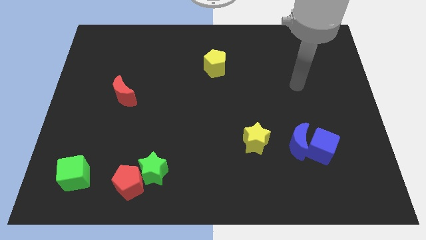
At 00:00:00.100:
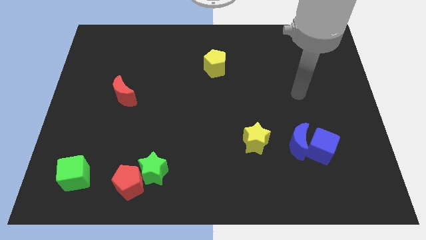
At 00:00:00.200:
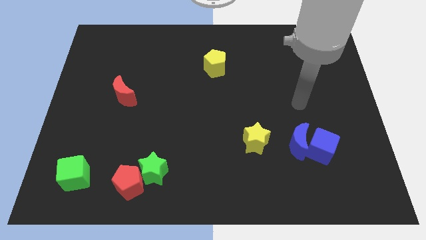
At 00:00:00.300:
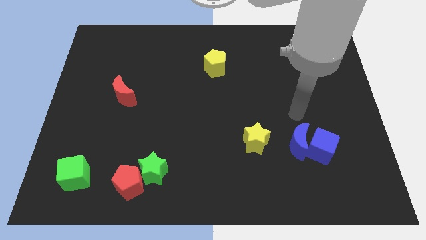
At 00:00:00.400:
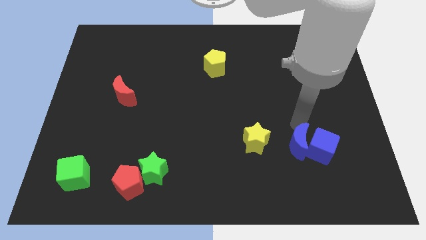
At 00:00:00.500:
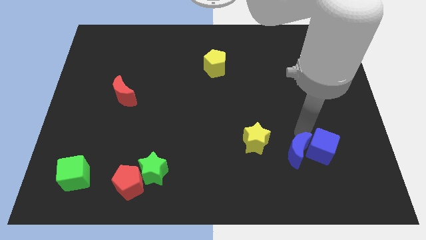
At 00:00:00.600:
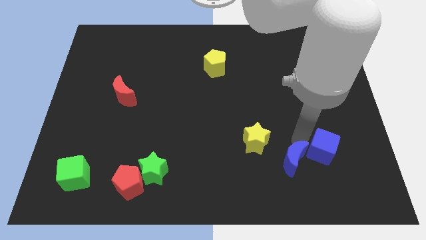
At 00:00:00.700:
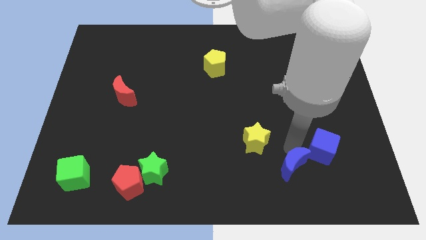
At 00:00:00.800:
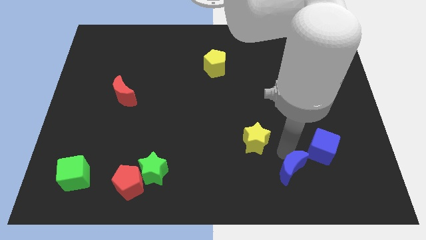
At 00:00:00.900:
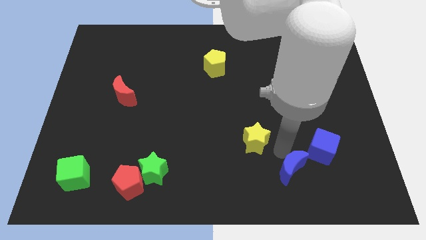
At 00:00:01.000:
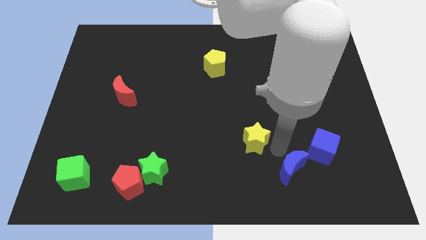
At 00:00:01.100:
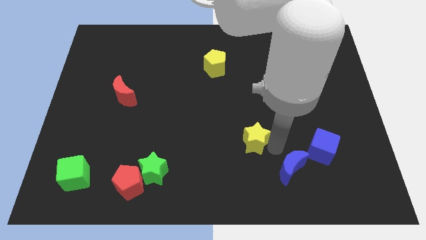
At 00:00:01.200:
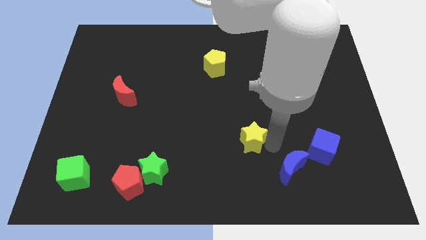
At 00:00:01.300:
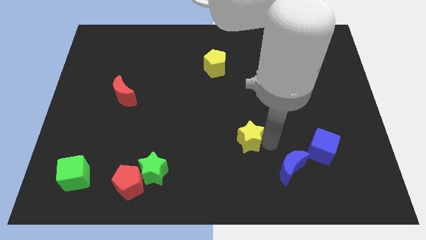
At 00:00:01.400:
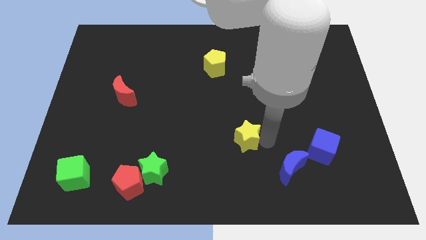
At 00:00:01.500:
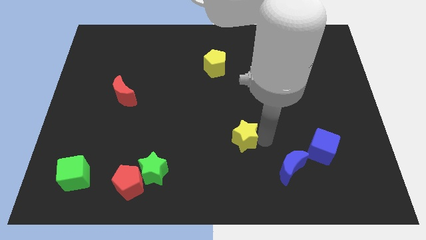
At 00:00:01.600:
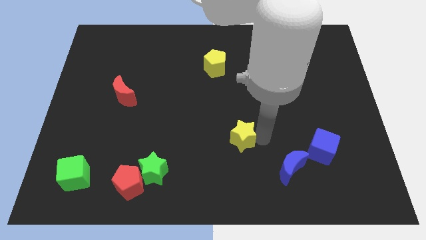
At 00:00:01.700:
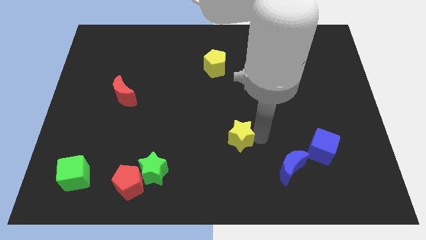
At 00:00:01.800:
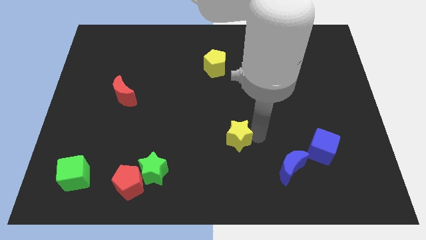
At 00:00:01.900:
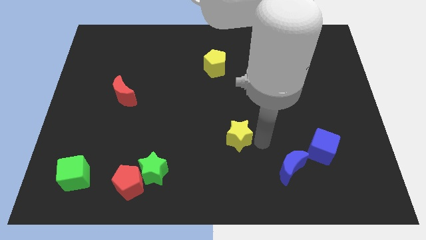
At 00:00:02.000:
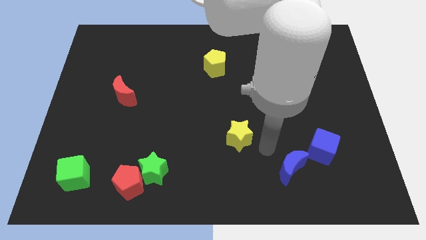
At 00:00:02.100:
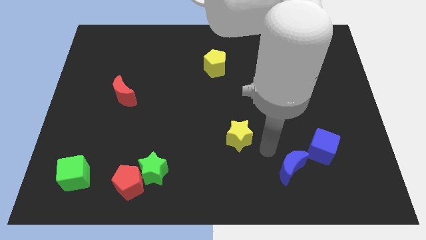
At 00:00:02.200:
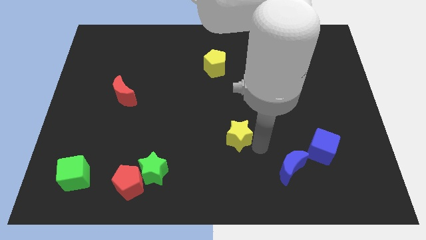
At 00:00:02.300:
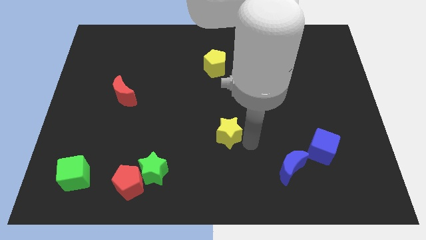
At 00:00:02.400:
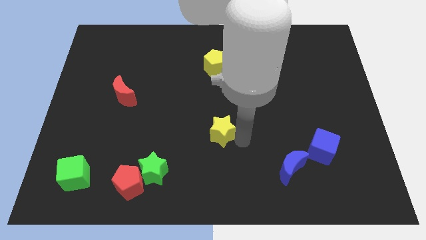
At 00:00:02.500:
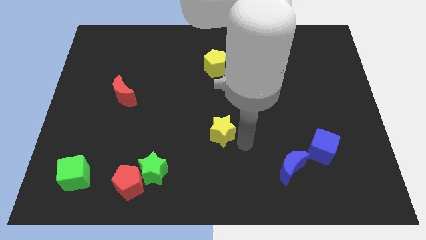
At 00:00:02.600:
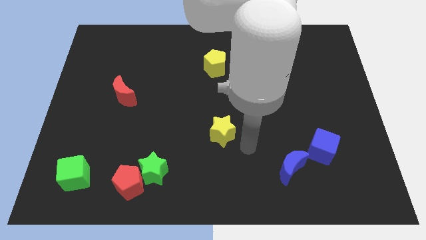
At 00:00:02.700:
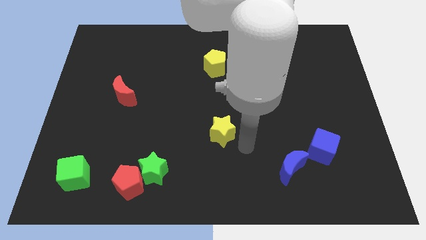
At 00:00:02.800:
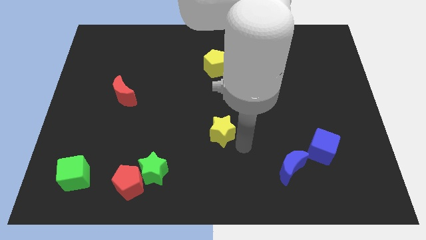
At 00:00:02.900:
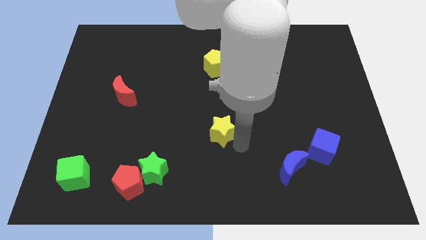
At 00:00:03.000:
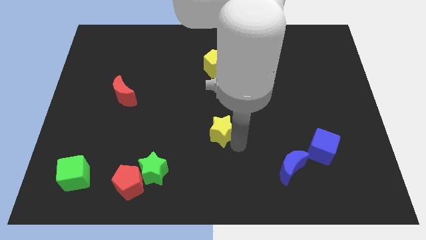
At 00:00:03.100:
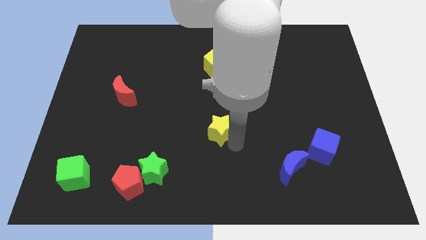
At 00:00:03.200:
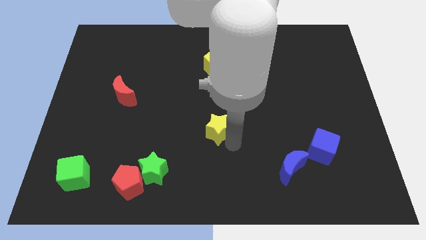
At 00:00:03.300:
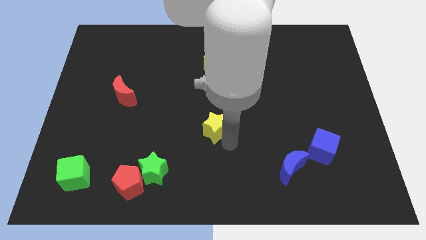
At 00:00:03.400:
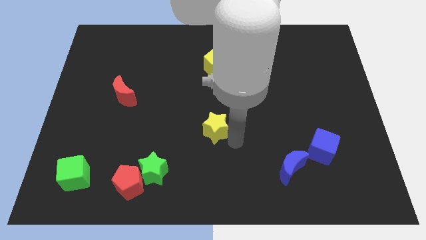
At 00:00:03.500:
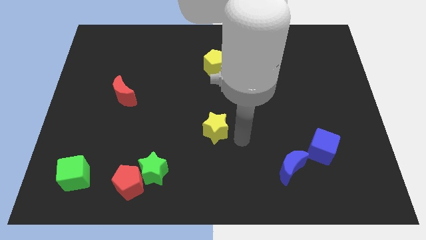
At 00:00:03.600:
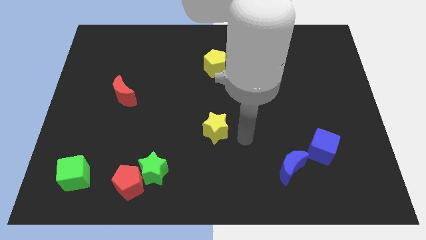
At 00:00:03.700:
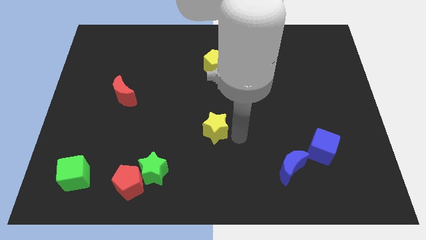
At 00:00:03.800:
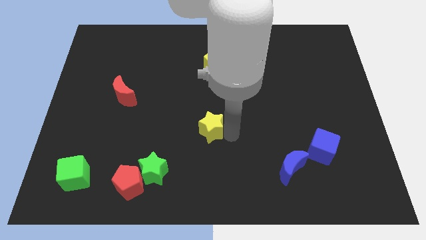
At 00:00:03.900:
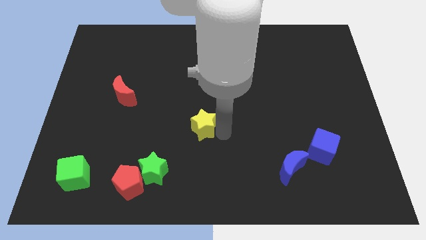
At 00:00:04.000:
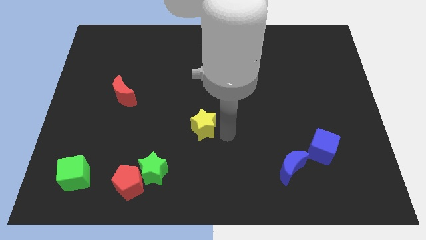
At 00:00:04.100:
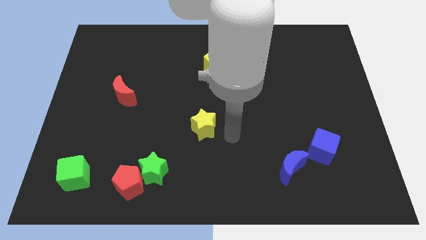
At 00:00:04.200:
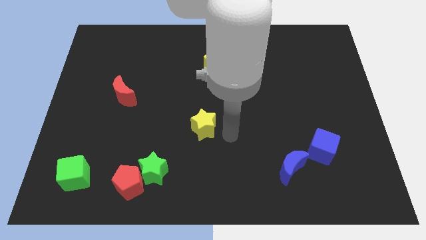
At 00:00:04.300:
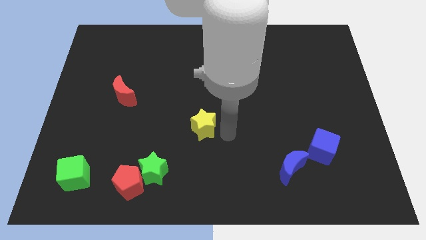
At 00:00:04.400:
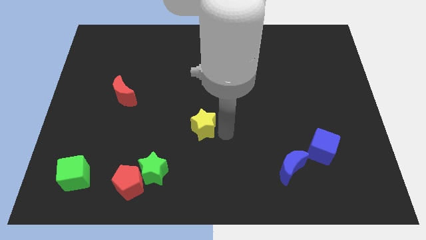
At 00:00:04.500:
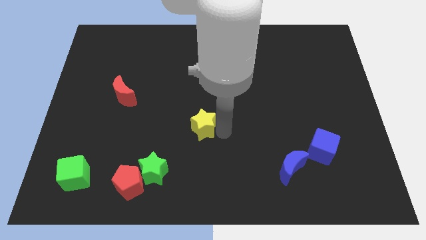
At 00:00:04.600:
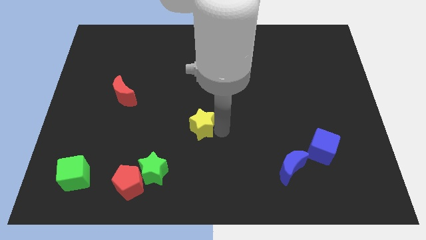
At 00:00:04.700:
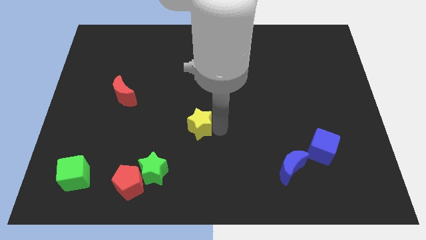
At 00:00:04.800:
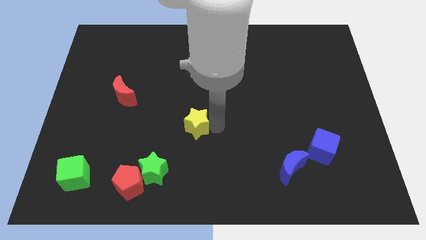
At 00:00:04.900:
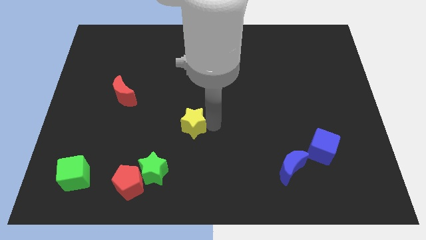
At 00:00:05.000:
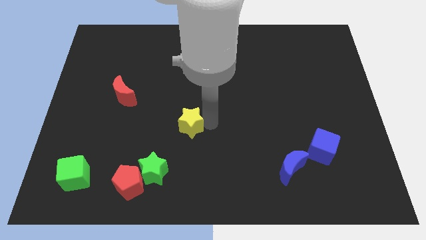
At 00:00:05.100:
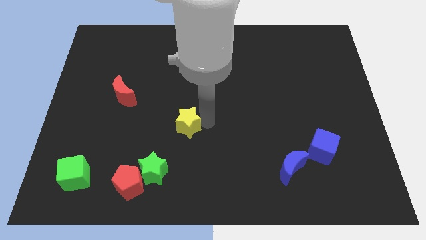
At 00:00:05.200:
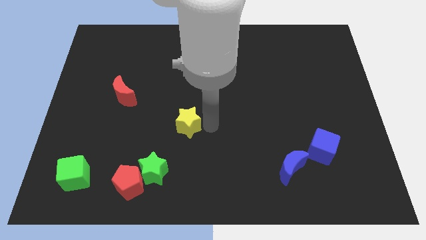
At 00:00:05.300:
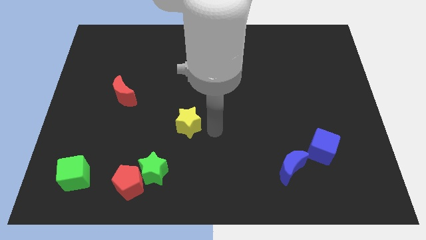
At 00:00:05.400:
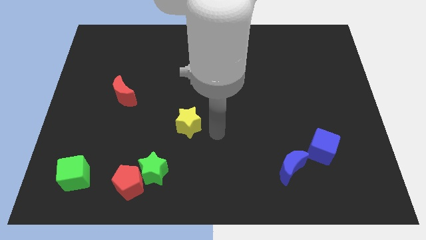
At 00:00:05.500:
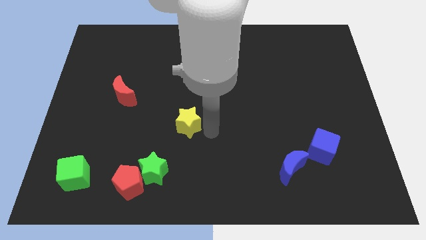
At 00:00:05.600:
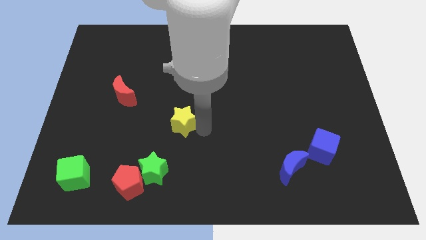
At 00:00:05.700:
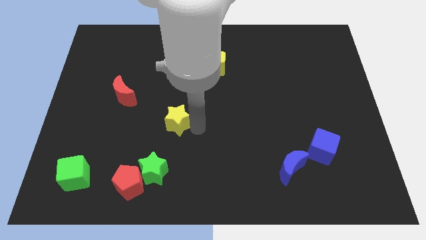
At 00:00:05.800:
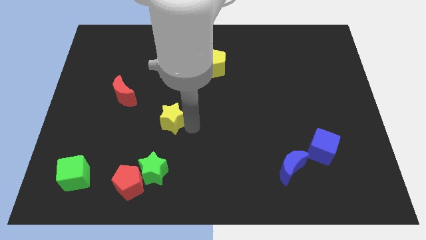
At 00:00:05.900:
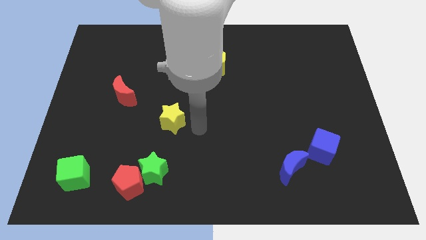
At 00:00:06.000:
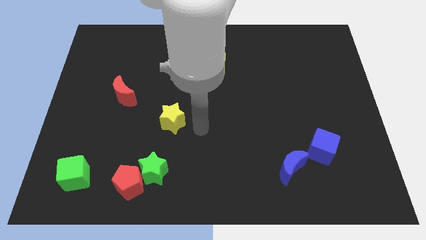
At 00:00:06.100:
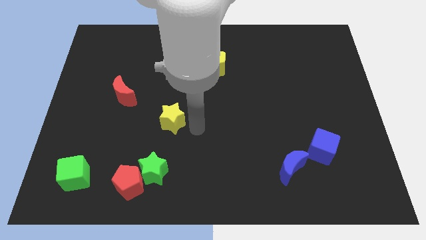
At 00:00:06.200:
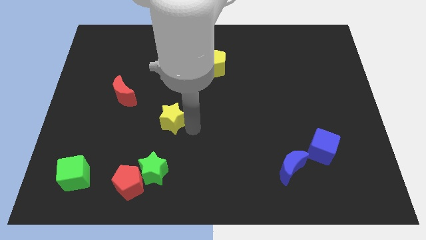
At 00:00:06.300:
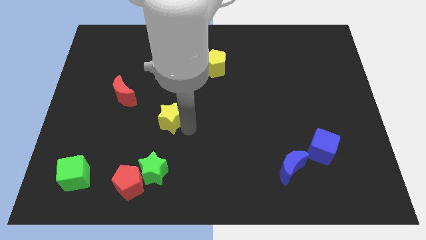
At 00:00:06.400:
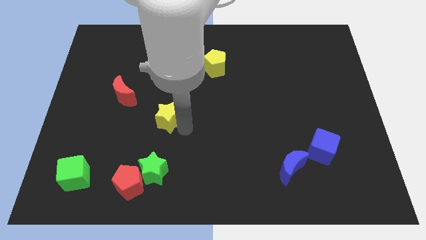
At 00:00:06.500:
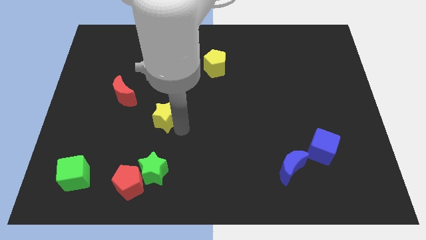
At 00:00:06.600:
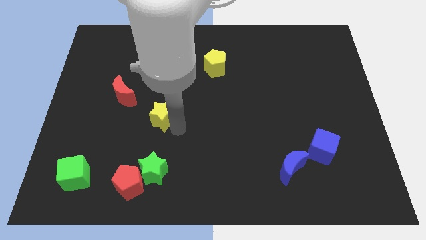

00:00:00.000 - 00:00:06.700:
slide the yellow star to the bottom right of the red moon
